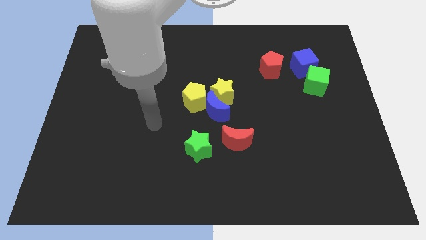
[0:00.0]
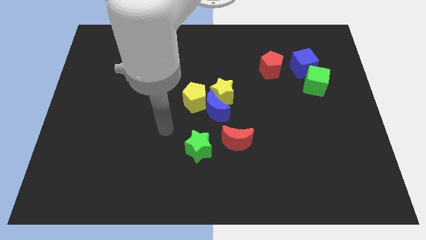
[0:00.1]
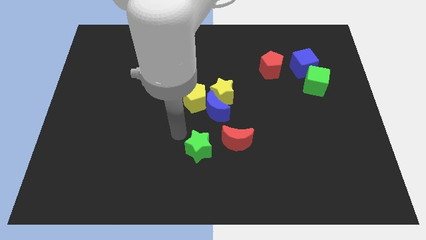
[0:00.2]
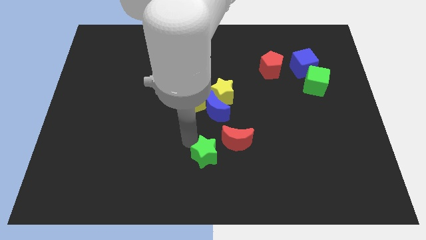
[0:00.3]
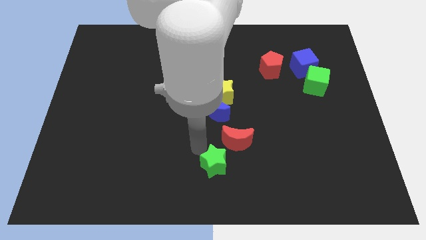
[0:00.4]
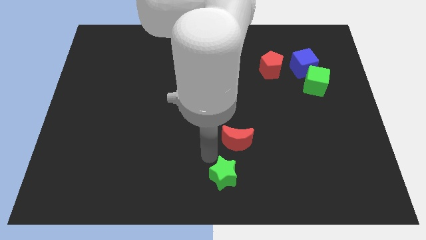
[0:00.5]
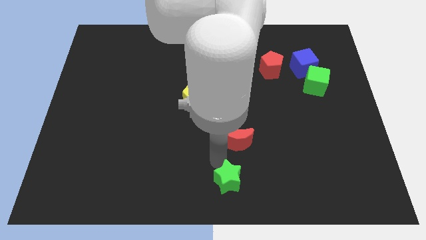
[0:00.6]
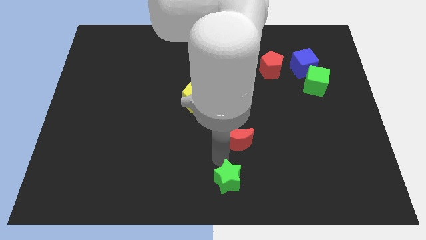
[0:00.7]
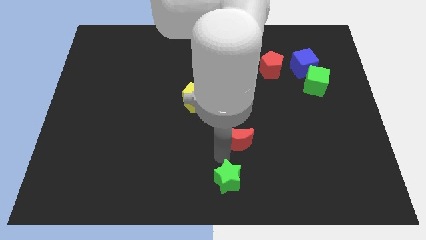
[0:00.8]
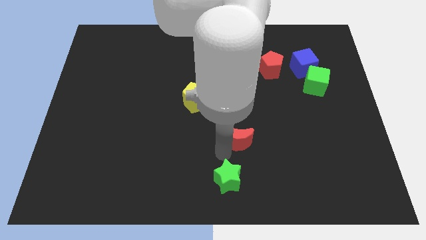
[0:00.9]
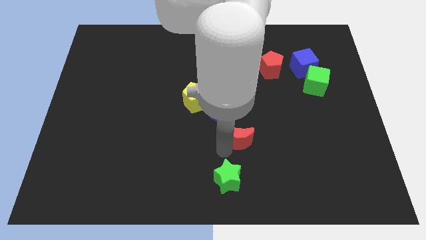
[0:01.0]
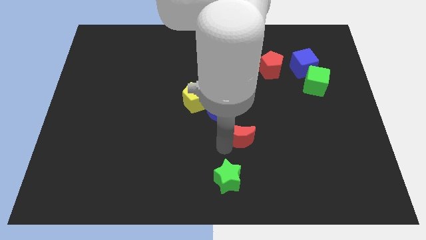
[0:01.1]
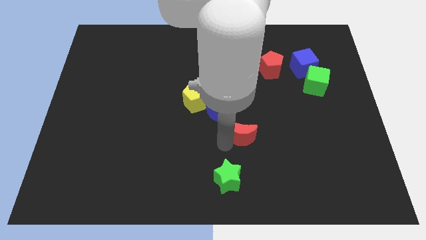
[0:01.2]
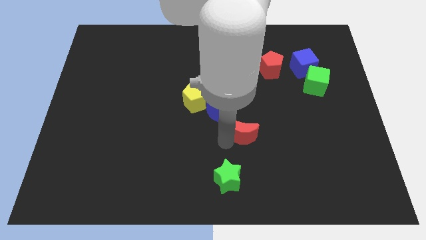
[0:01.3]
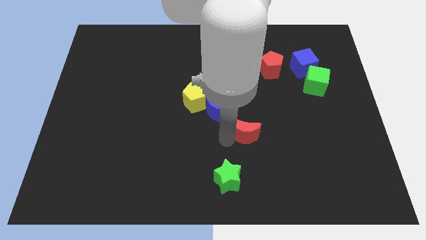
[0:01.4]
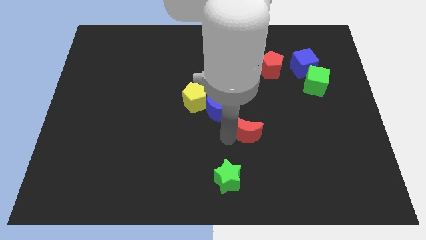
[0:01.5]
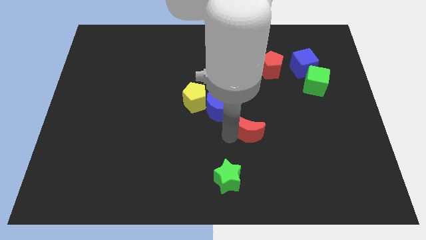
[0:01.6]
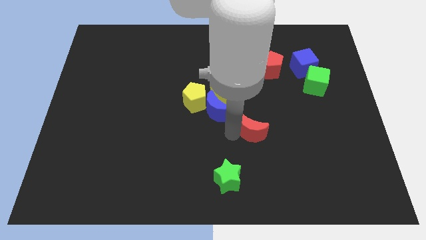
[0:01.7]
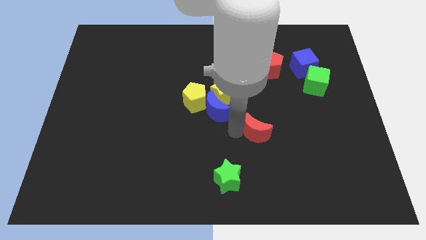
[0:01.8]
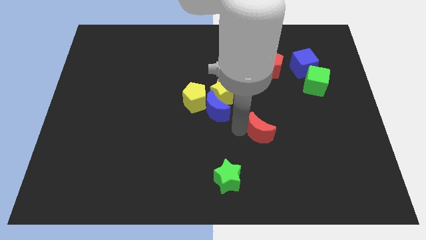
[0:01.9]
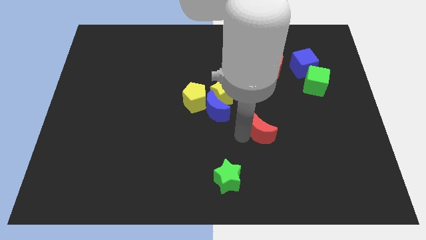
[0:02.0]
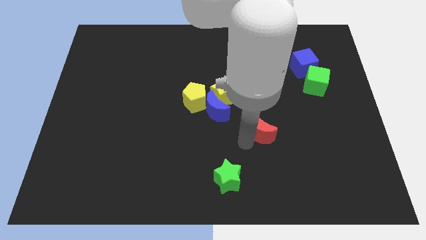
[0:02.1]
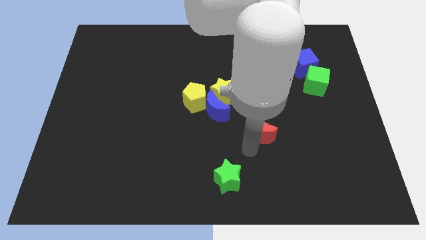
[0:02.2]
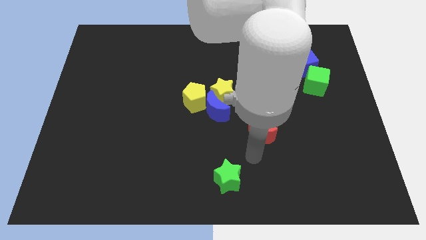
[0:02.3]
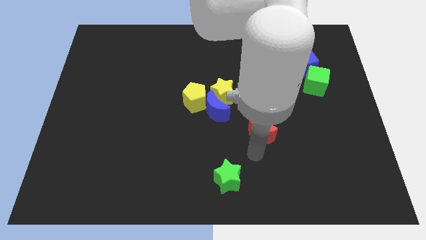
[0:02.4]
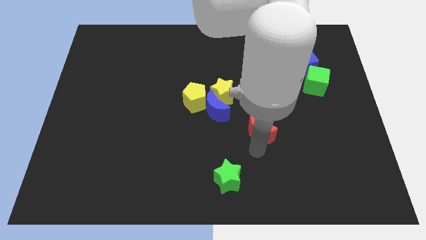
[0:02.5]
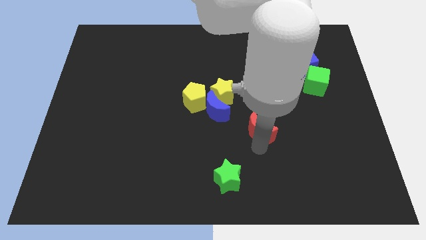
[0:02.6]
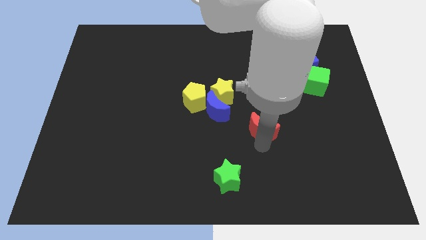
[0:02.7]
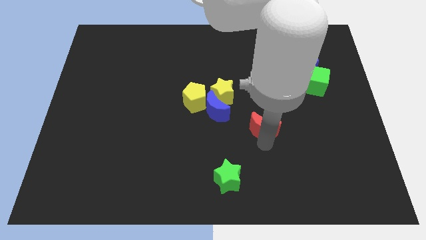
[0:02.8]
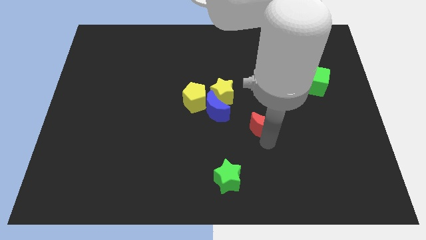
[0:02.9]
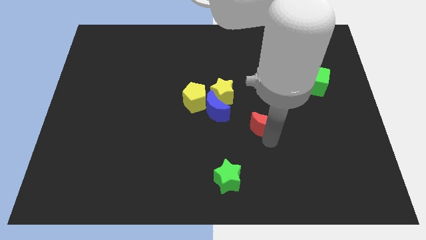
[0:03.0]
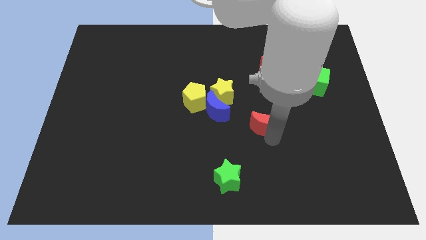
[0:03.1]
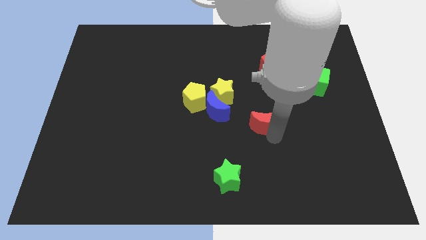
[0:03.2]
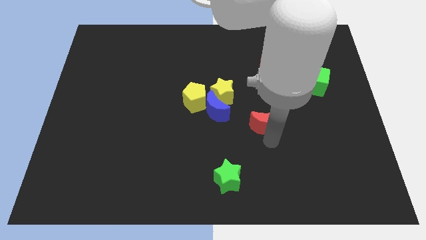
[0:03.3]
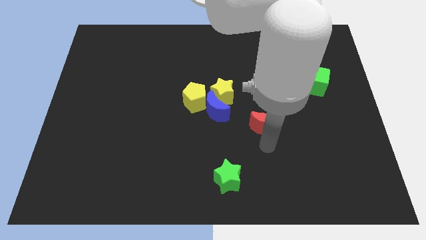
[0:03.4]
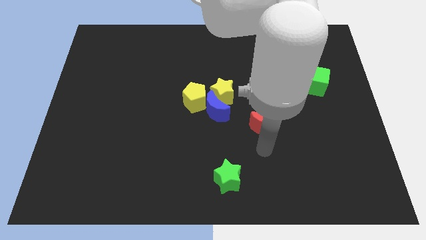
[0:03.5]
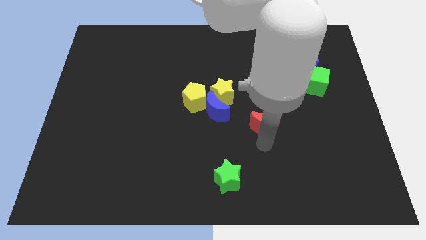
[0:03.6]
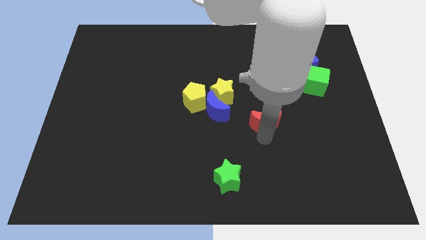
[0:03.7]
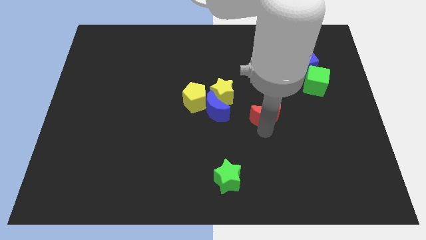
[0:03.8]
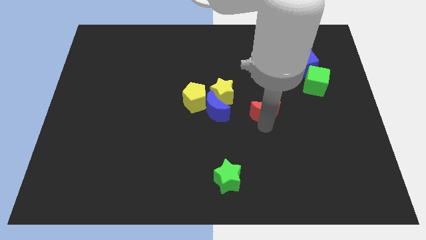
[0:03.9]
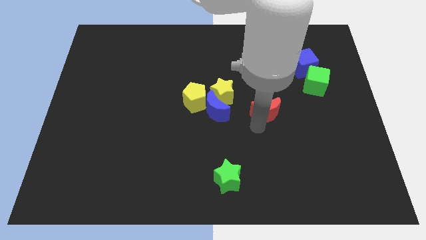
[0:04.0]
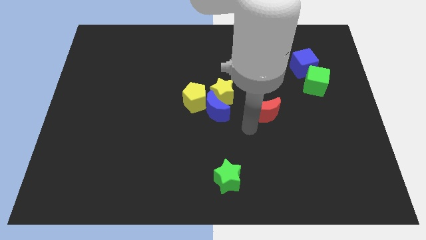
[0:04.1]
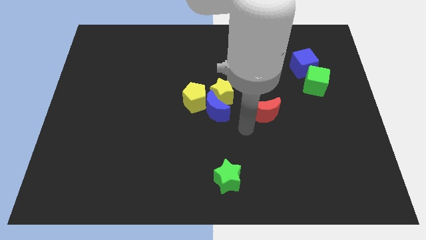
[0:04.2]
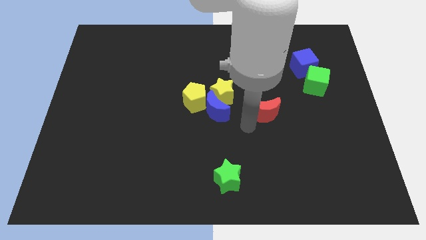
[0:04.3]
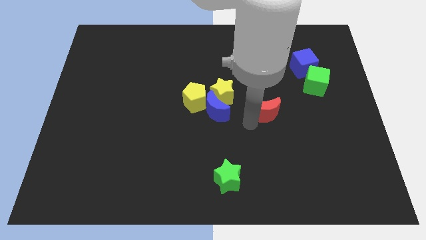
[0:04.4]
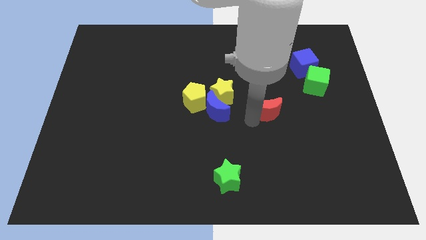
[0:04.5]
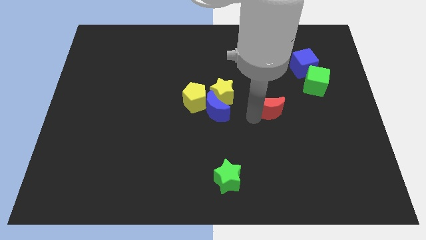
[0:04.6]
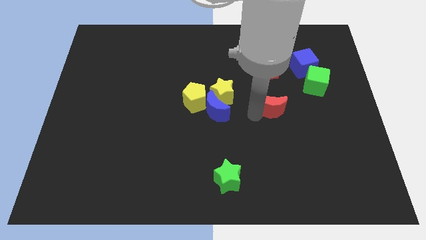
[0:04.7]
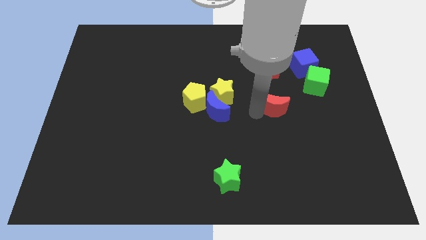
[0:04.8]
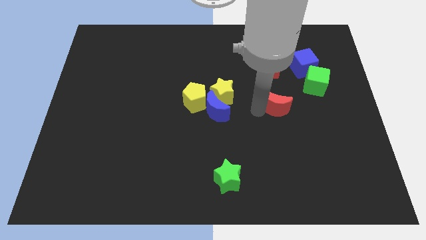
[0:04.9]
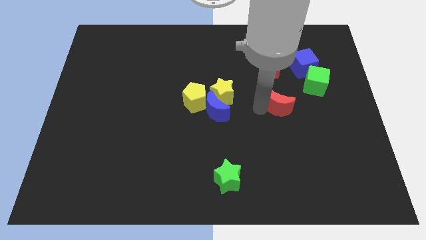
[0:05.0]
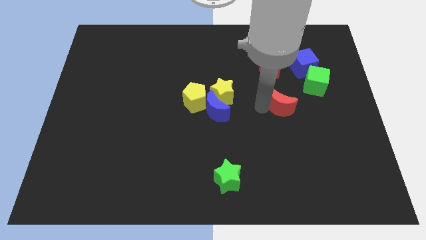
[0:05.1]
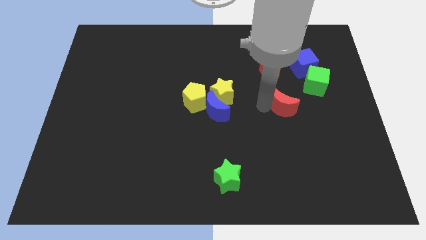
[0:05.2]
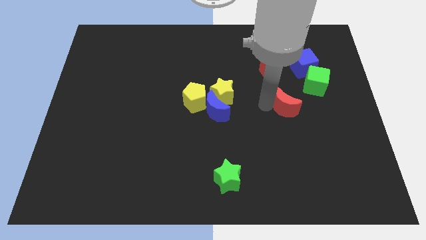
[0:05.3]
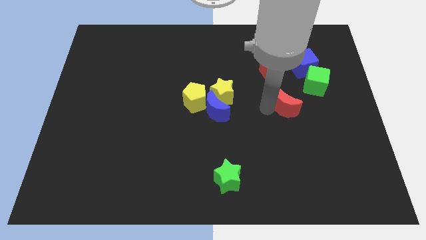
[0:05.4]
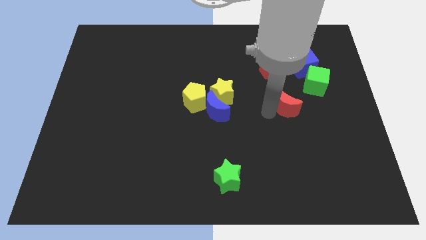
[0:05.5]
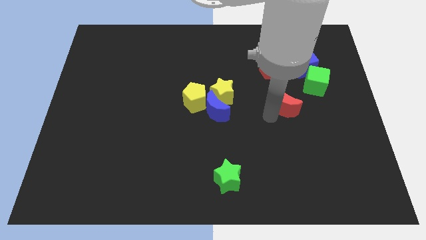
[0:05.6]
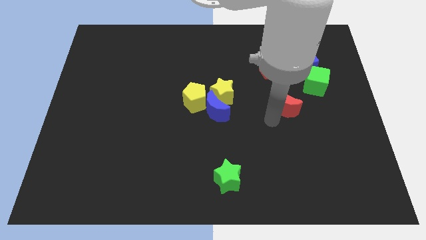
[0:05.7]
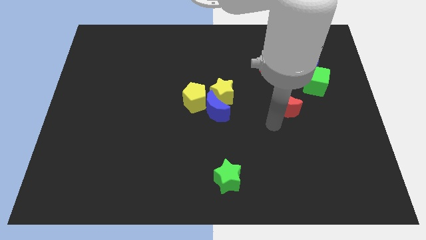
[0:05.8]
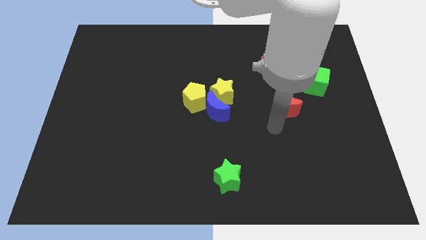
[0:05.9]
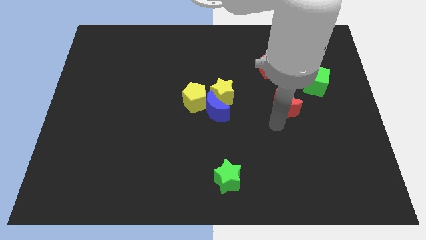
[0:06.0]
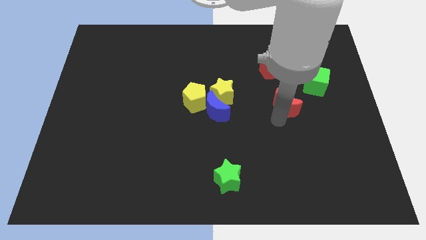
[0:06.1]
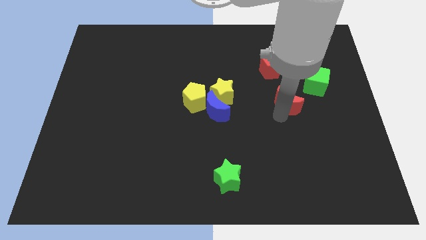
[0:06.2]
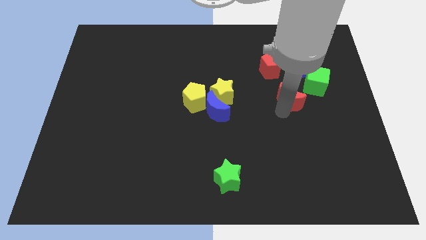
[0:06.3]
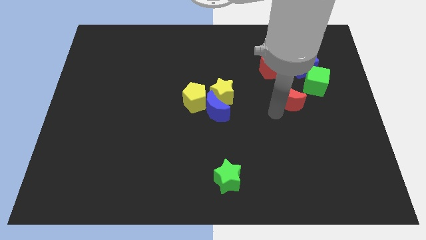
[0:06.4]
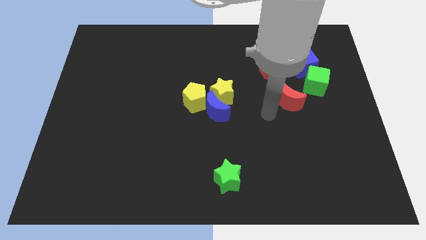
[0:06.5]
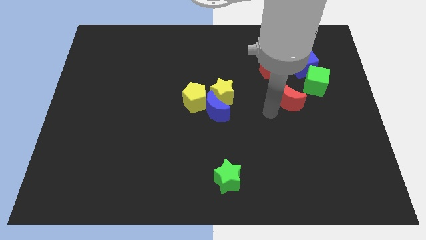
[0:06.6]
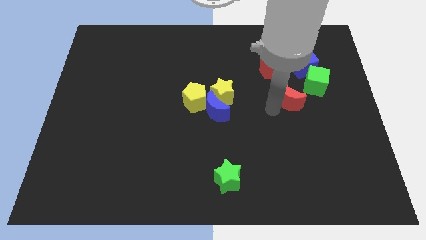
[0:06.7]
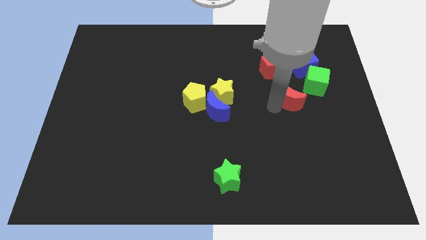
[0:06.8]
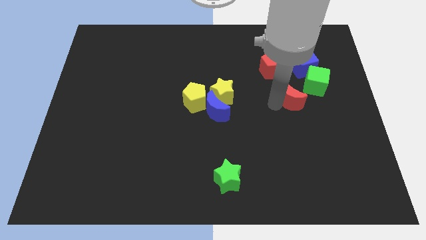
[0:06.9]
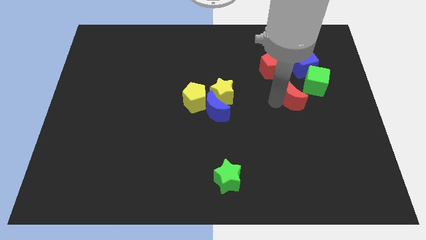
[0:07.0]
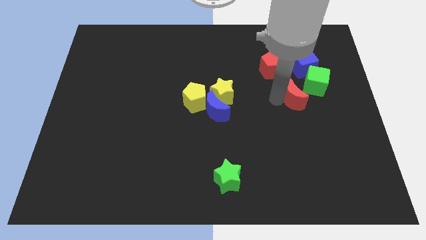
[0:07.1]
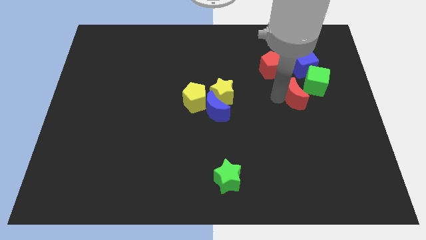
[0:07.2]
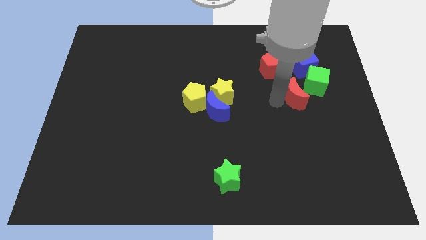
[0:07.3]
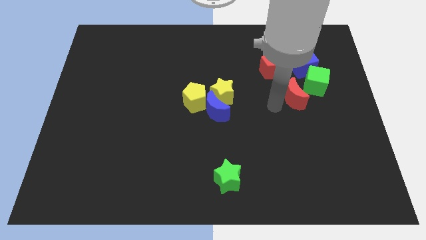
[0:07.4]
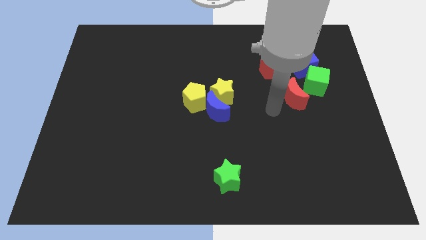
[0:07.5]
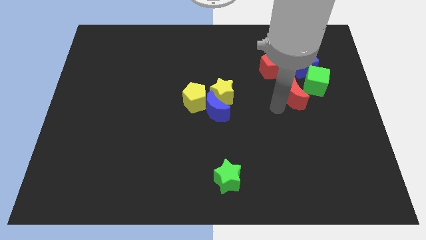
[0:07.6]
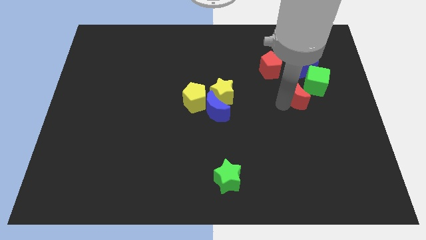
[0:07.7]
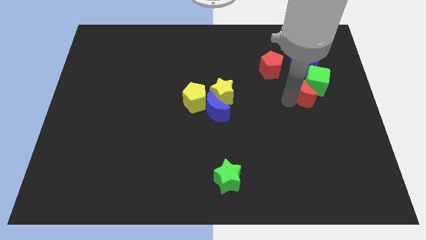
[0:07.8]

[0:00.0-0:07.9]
put the red moon close to the green cube

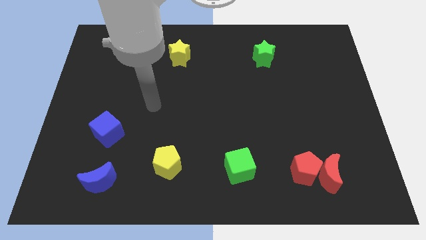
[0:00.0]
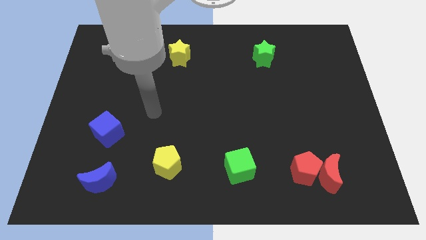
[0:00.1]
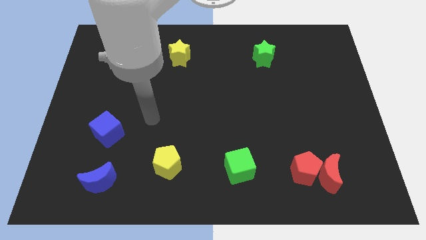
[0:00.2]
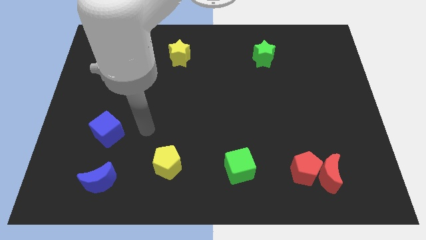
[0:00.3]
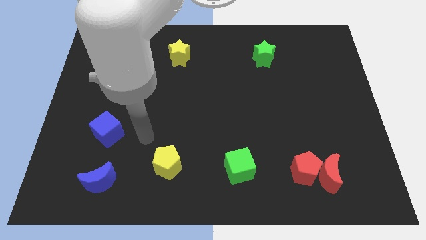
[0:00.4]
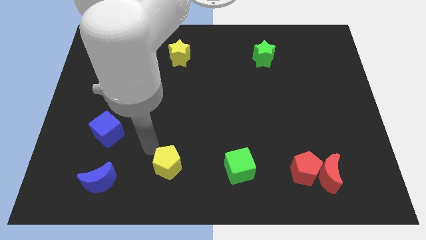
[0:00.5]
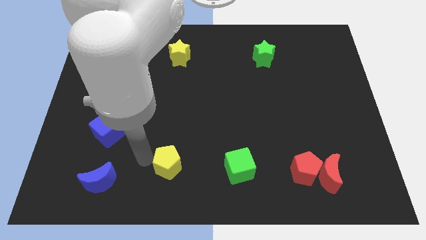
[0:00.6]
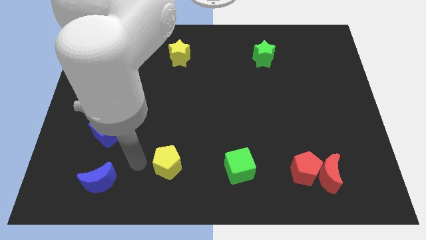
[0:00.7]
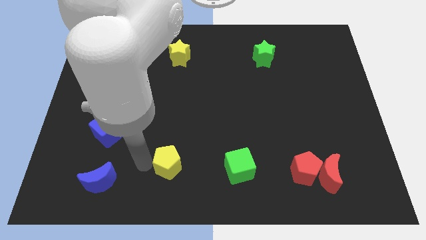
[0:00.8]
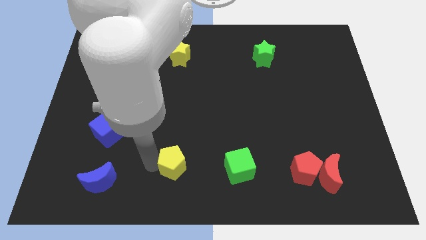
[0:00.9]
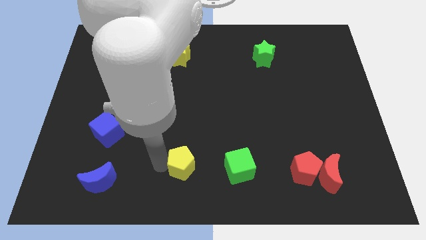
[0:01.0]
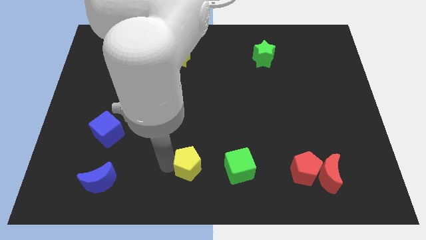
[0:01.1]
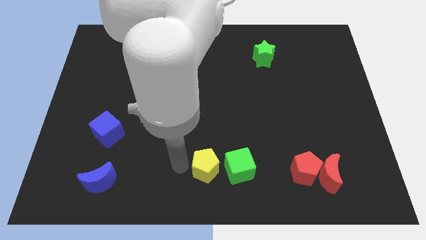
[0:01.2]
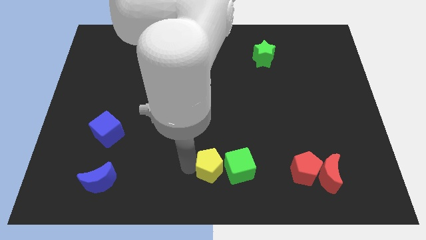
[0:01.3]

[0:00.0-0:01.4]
slide the yellow pentagon towards the green cube
